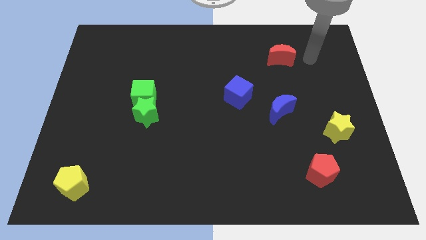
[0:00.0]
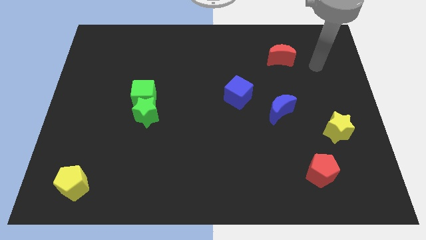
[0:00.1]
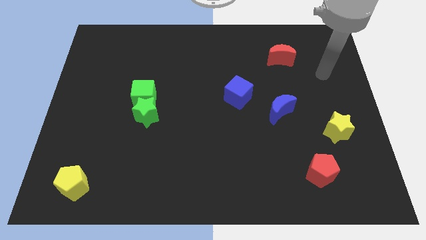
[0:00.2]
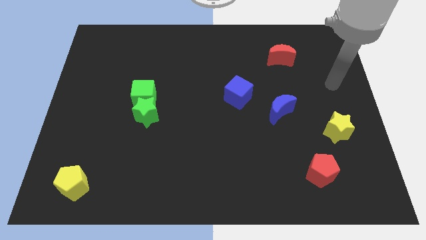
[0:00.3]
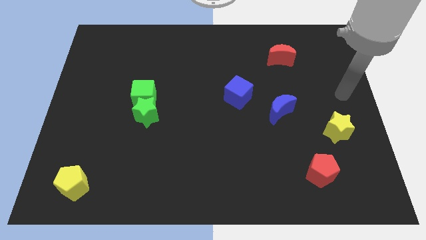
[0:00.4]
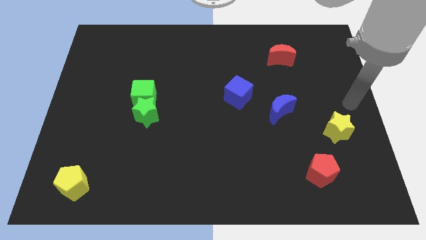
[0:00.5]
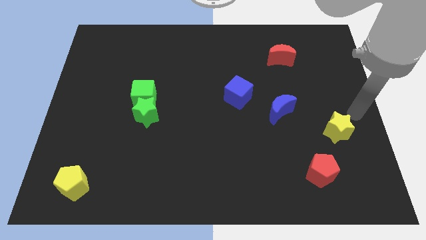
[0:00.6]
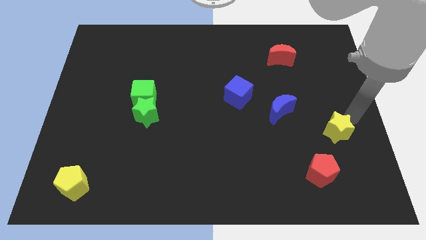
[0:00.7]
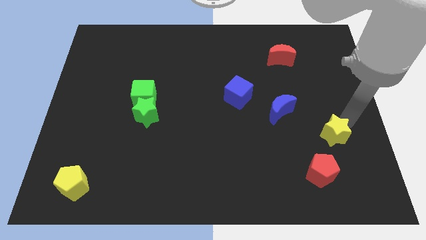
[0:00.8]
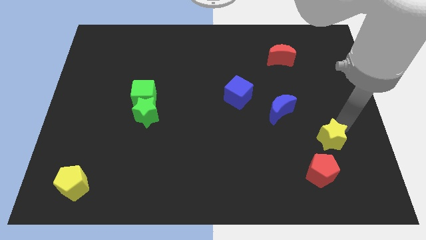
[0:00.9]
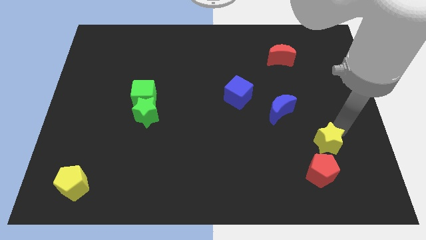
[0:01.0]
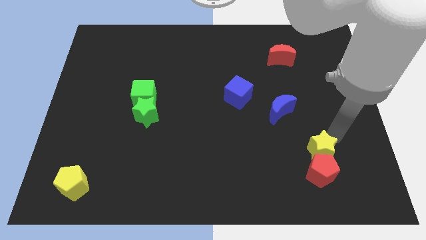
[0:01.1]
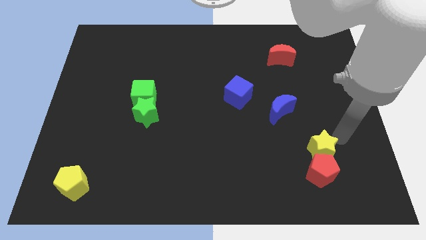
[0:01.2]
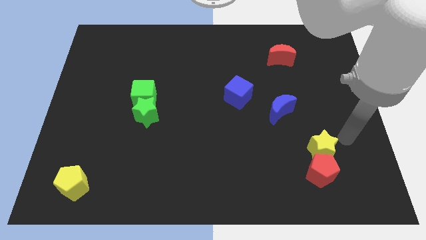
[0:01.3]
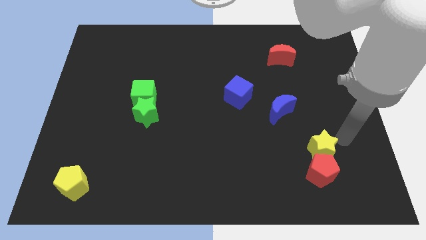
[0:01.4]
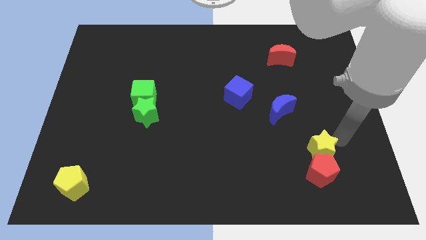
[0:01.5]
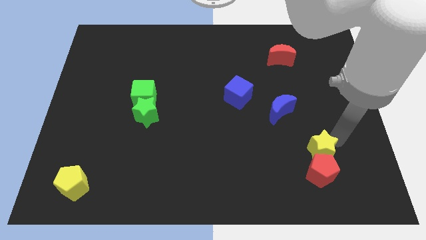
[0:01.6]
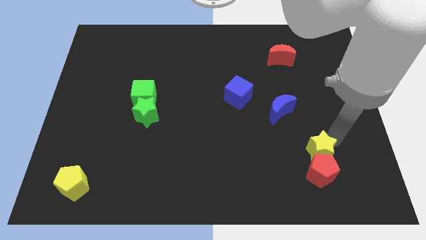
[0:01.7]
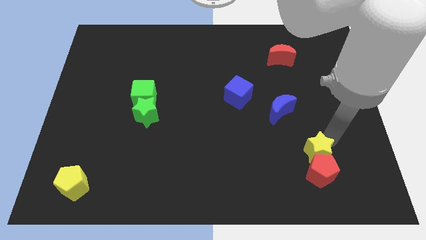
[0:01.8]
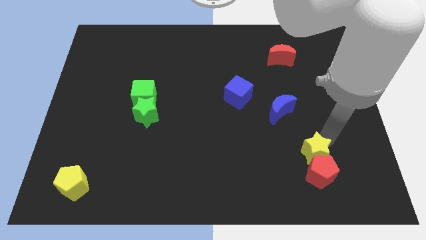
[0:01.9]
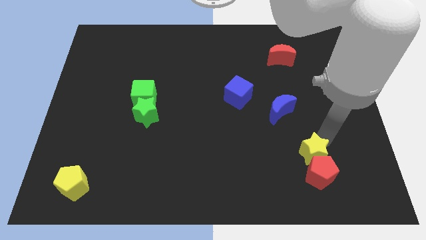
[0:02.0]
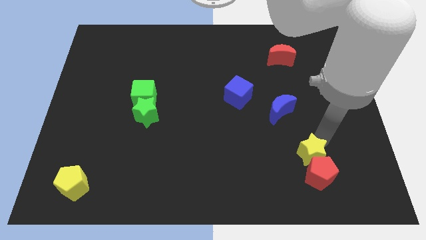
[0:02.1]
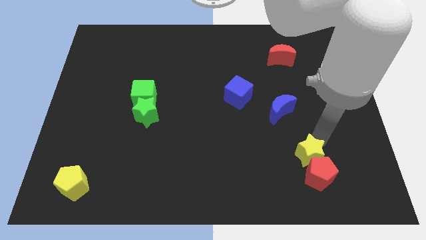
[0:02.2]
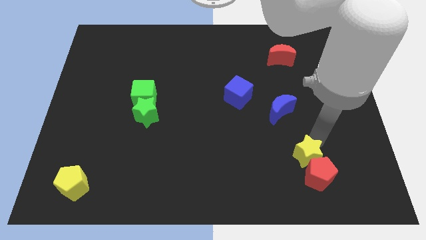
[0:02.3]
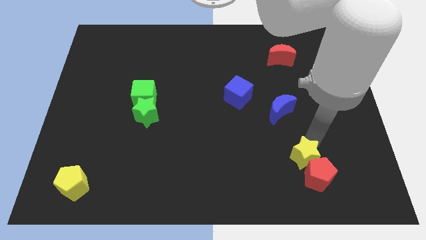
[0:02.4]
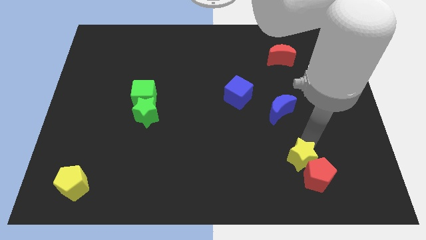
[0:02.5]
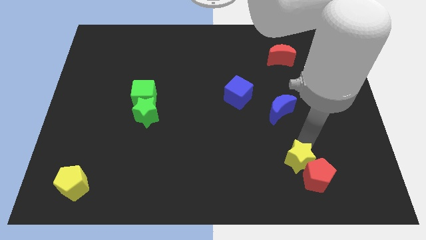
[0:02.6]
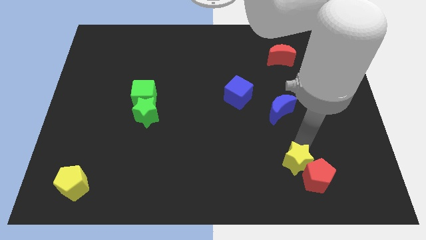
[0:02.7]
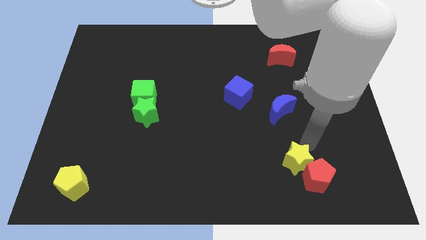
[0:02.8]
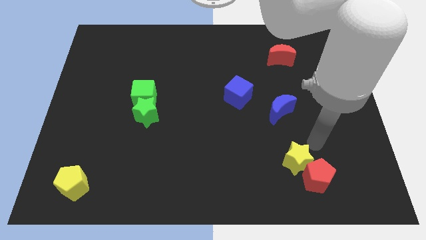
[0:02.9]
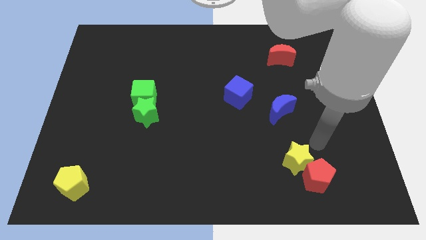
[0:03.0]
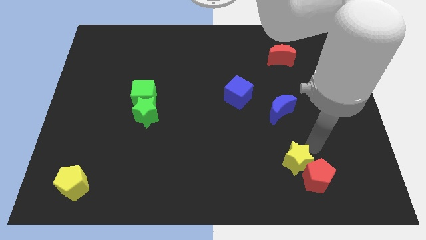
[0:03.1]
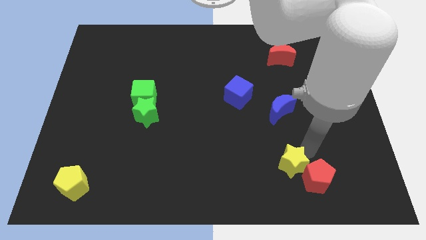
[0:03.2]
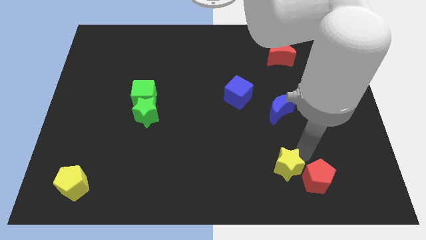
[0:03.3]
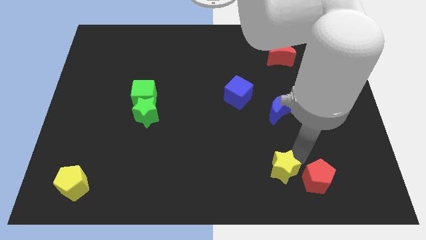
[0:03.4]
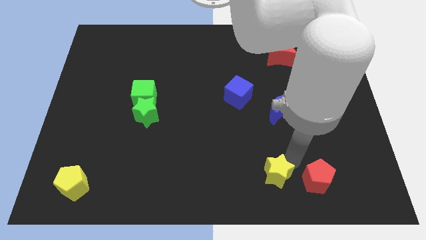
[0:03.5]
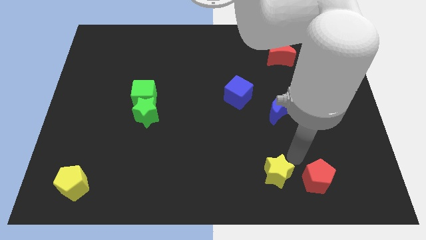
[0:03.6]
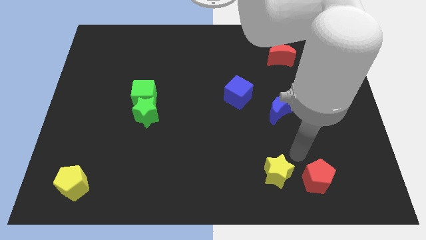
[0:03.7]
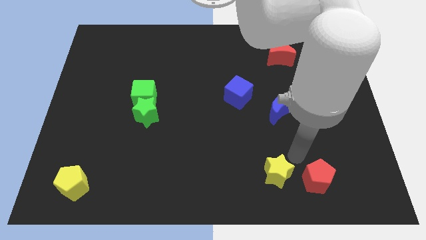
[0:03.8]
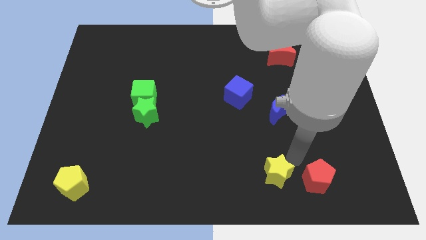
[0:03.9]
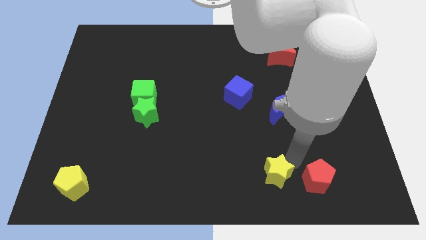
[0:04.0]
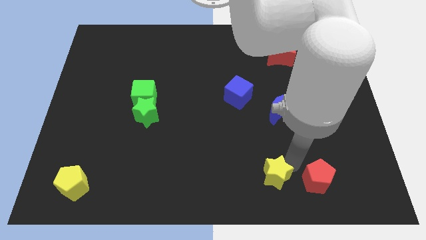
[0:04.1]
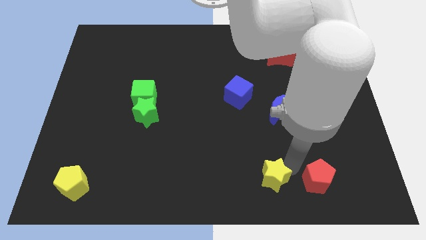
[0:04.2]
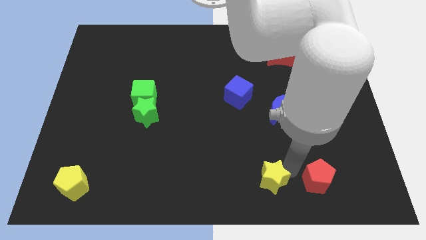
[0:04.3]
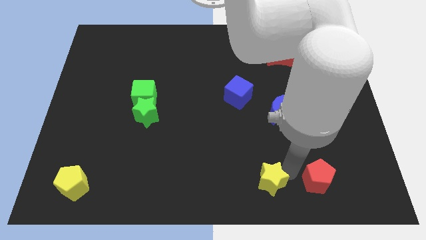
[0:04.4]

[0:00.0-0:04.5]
slide the yellow star to the bottom

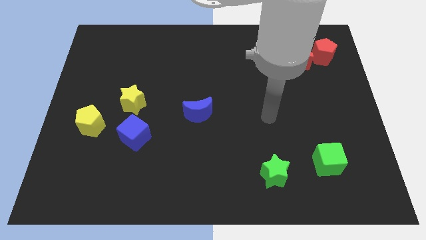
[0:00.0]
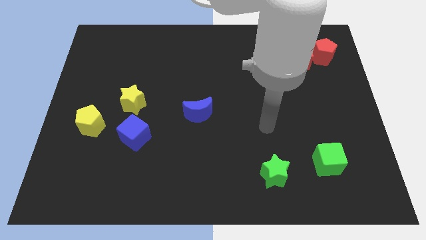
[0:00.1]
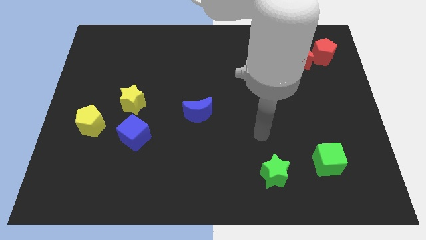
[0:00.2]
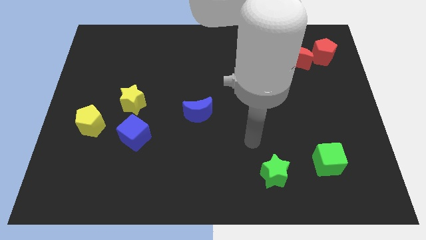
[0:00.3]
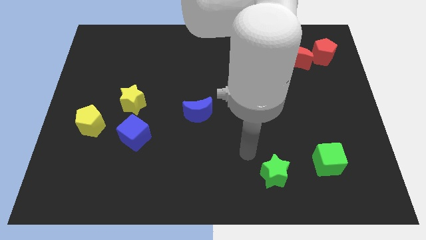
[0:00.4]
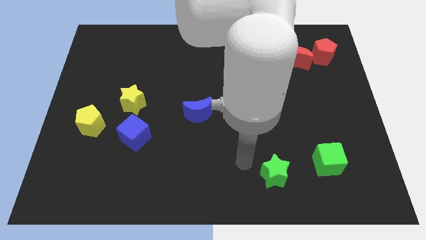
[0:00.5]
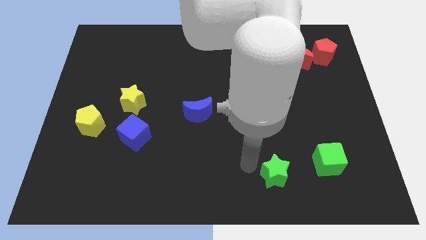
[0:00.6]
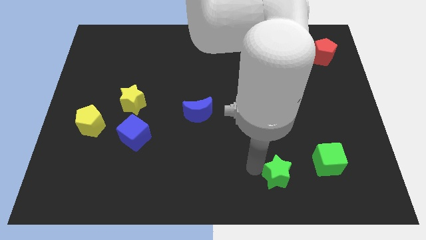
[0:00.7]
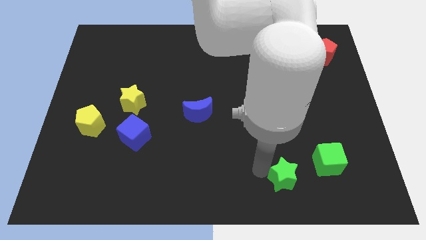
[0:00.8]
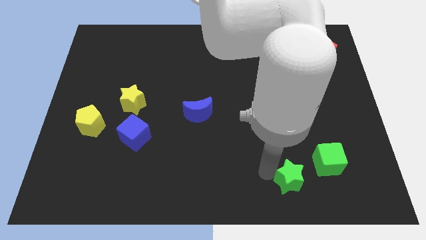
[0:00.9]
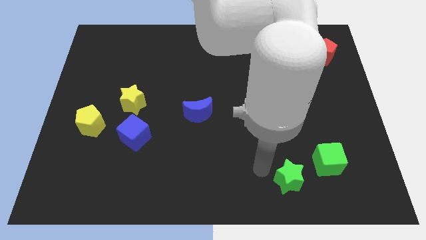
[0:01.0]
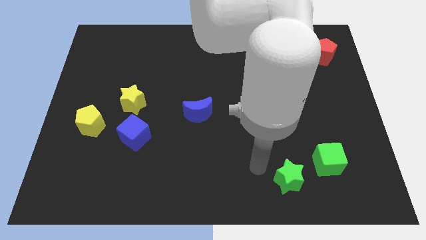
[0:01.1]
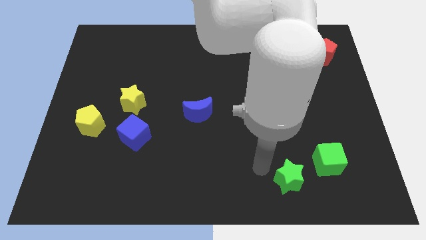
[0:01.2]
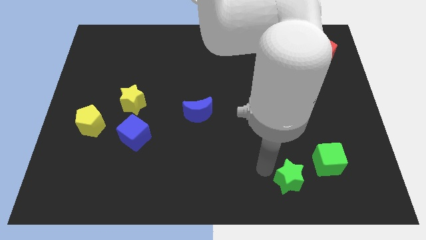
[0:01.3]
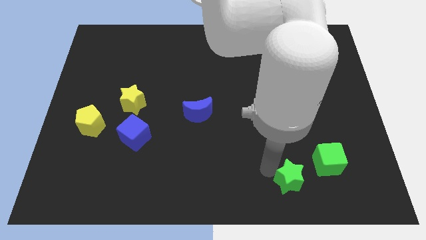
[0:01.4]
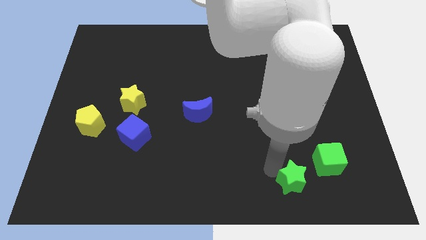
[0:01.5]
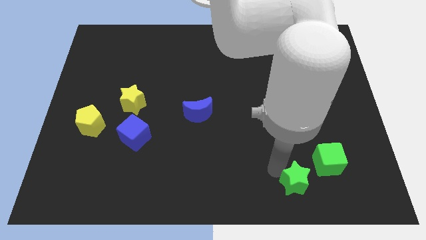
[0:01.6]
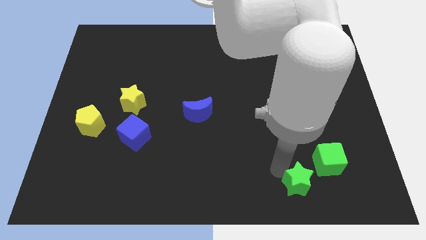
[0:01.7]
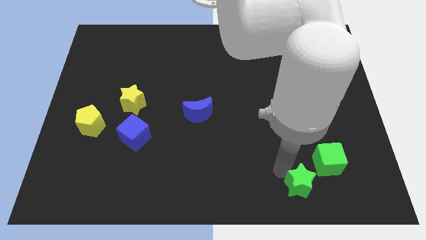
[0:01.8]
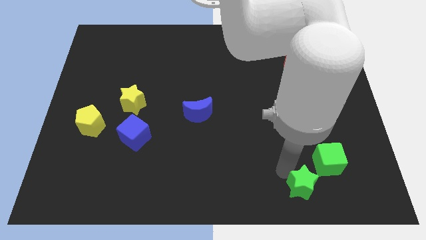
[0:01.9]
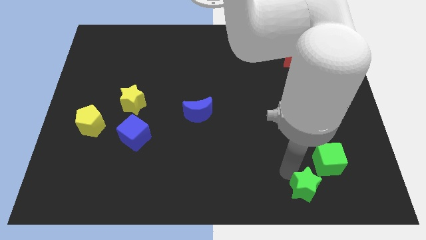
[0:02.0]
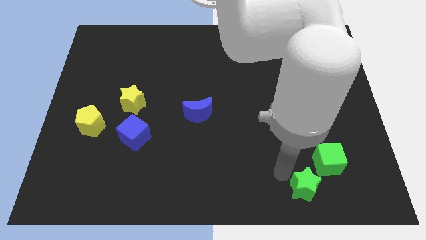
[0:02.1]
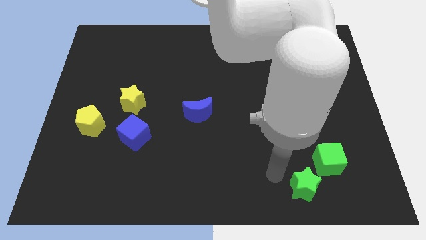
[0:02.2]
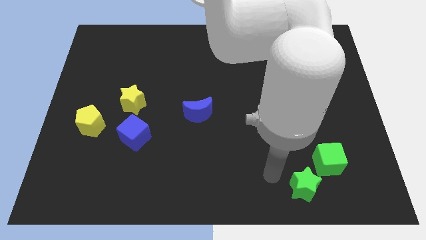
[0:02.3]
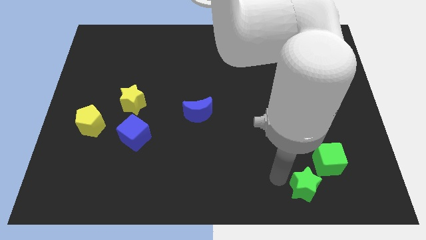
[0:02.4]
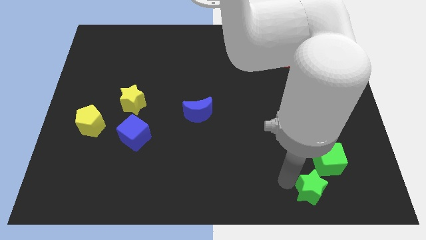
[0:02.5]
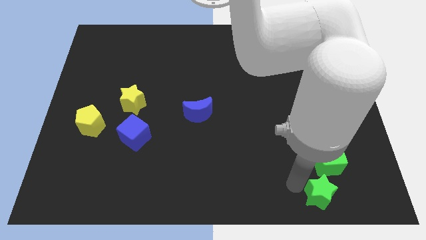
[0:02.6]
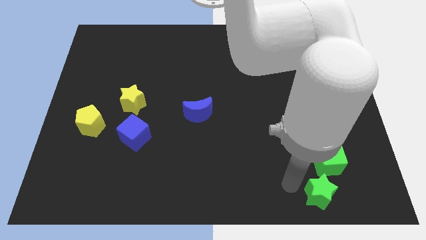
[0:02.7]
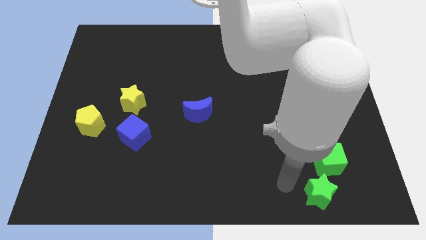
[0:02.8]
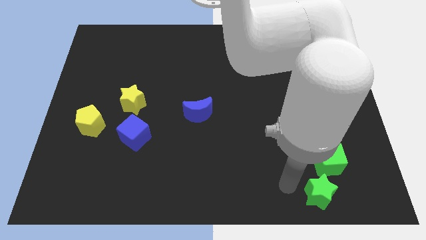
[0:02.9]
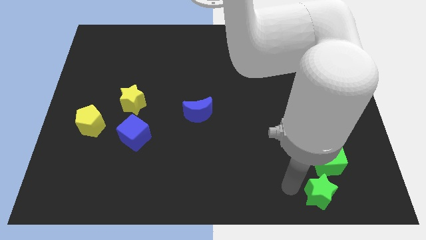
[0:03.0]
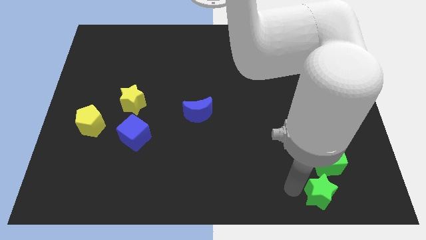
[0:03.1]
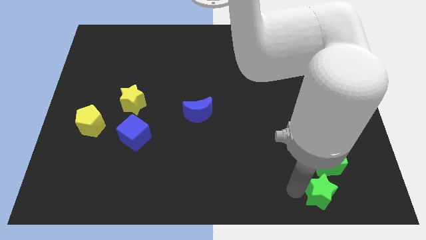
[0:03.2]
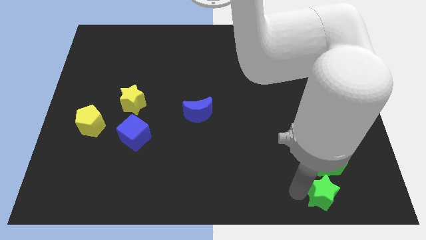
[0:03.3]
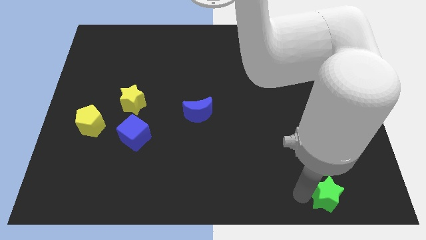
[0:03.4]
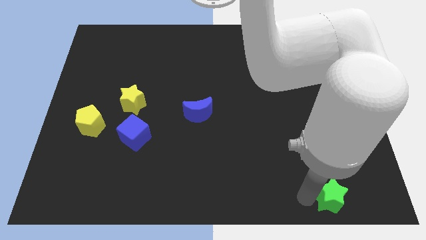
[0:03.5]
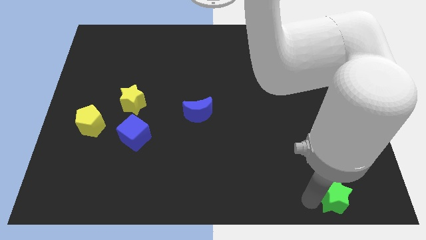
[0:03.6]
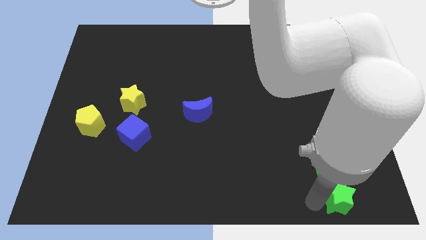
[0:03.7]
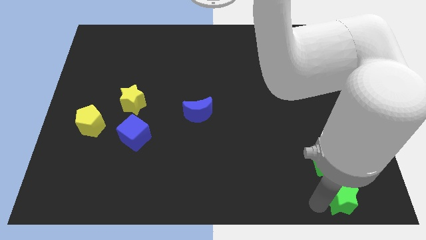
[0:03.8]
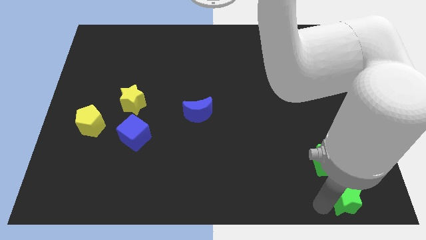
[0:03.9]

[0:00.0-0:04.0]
move the green star to the bottom right of the board
